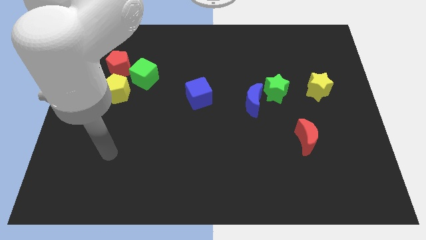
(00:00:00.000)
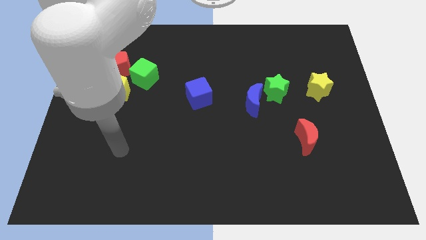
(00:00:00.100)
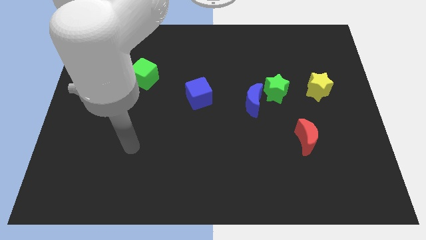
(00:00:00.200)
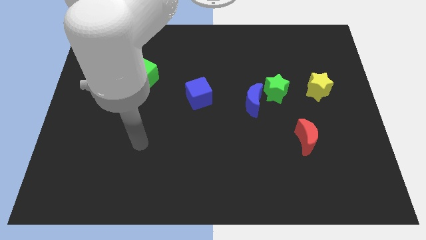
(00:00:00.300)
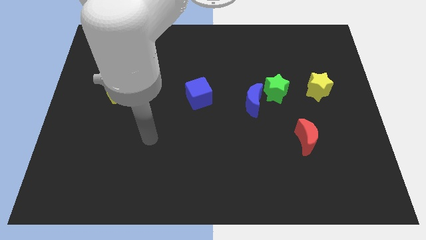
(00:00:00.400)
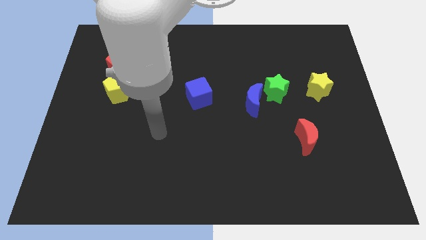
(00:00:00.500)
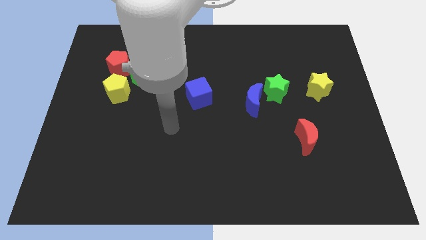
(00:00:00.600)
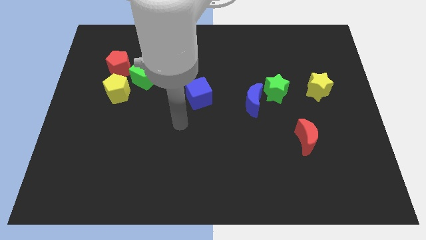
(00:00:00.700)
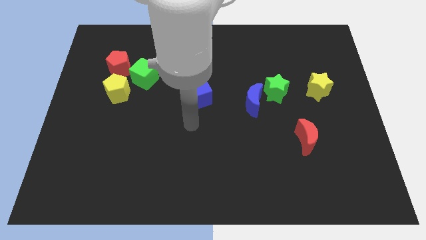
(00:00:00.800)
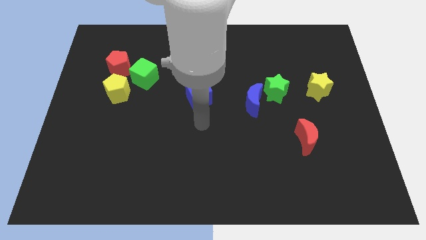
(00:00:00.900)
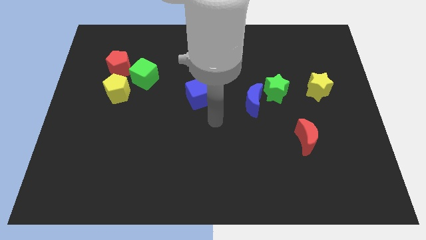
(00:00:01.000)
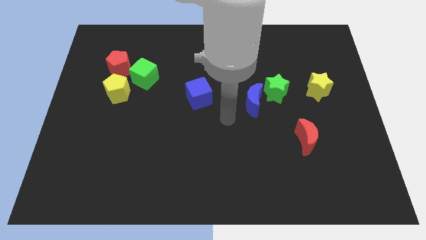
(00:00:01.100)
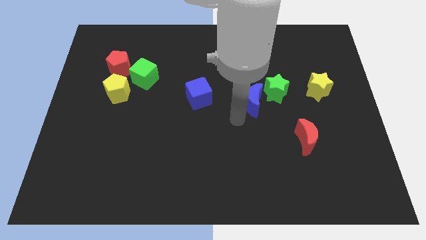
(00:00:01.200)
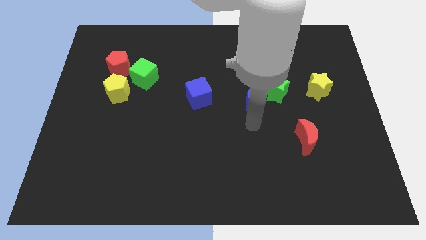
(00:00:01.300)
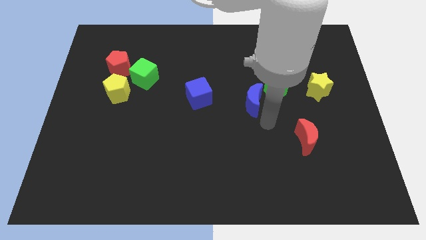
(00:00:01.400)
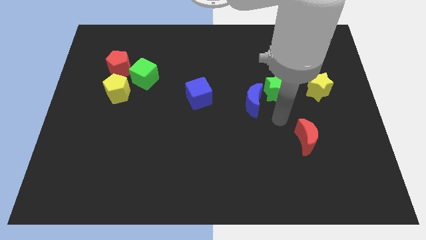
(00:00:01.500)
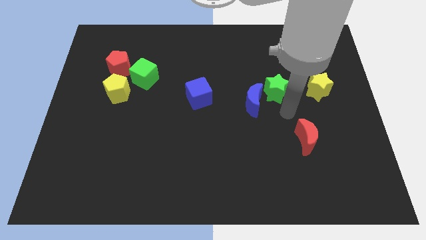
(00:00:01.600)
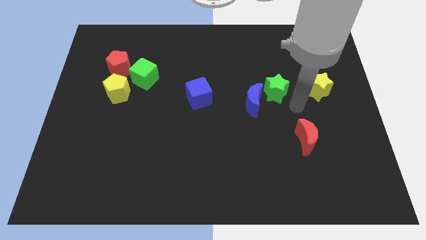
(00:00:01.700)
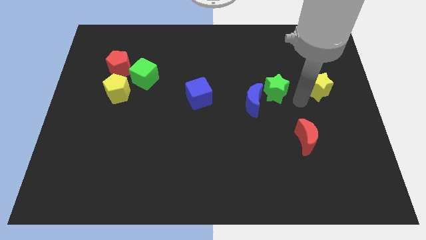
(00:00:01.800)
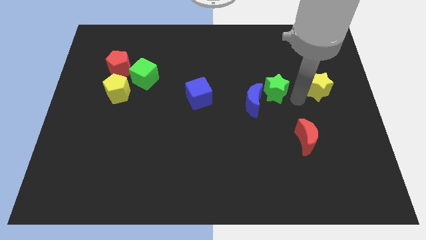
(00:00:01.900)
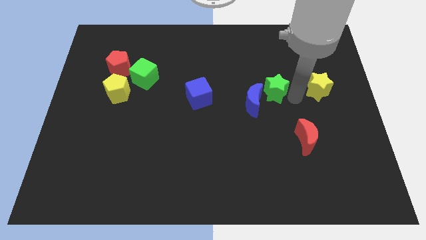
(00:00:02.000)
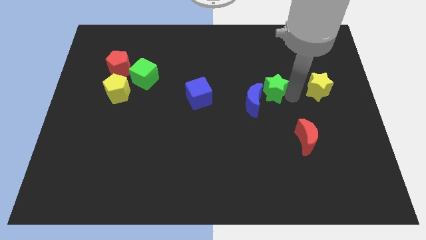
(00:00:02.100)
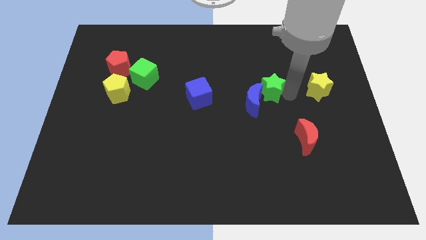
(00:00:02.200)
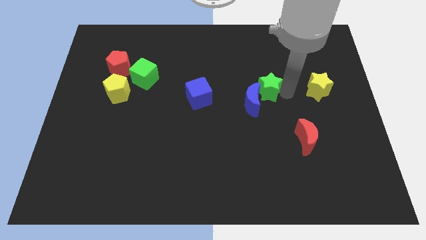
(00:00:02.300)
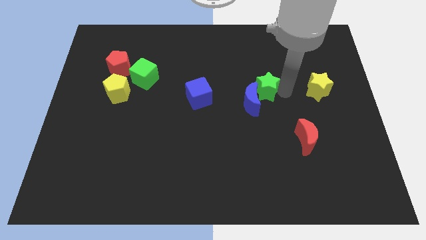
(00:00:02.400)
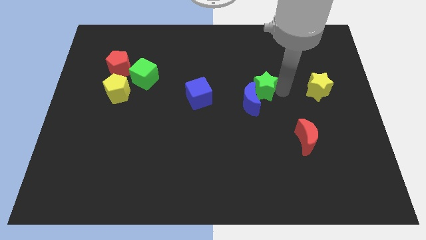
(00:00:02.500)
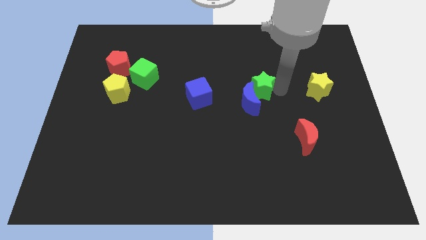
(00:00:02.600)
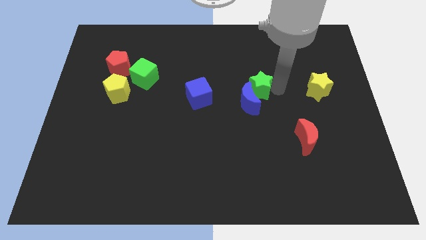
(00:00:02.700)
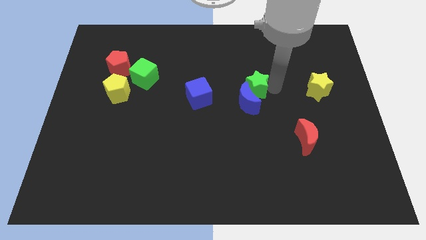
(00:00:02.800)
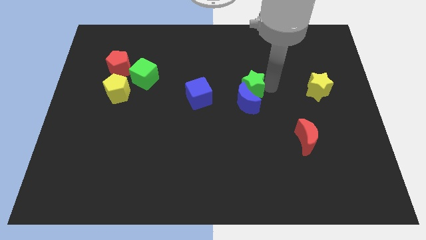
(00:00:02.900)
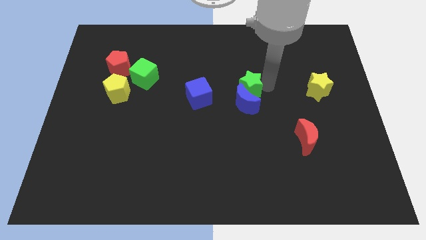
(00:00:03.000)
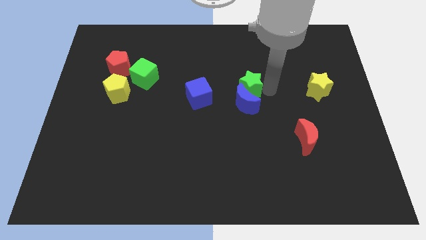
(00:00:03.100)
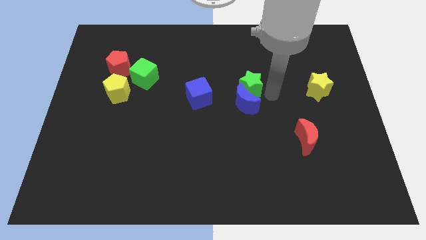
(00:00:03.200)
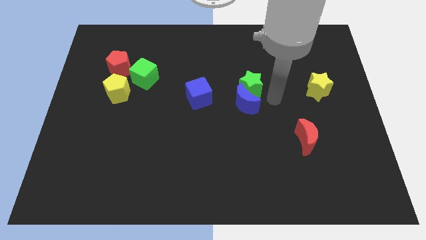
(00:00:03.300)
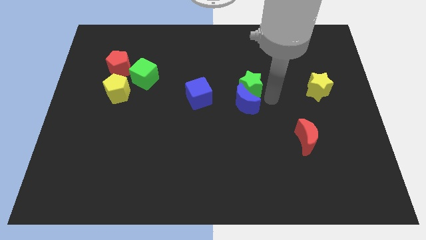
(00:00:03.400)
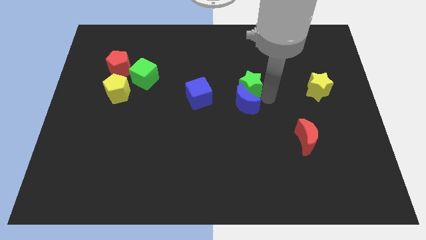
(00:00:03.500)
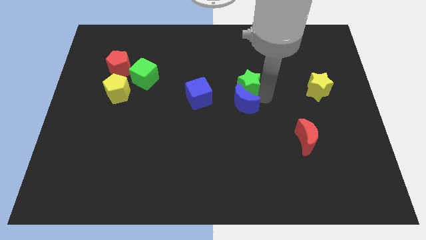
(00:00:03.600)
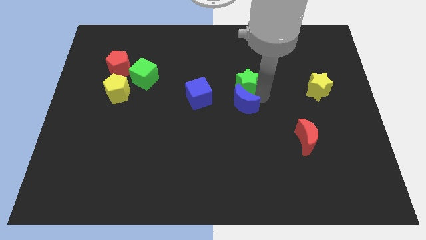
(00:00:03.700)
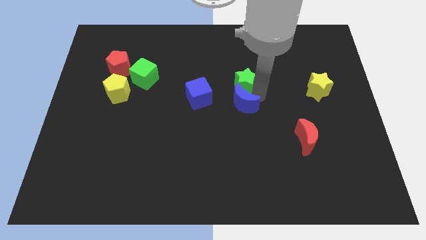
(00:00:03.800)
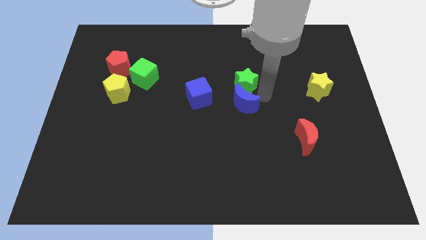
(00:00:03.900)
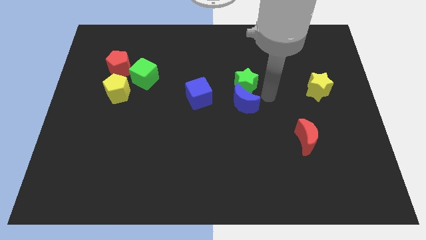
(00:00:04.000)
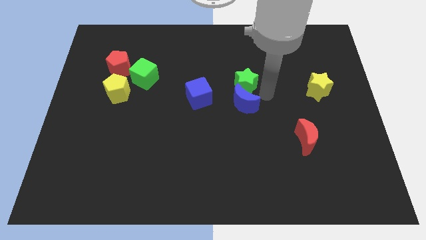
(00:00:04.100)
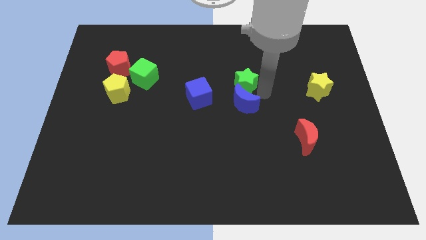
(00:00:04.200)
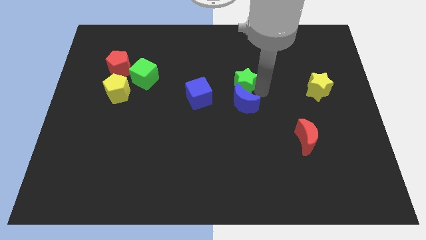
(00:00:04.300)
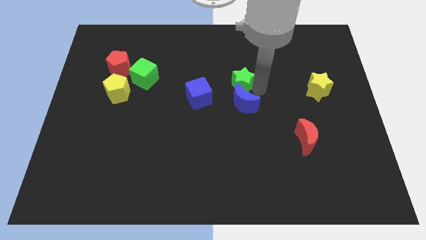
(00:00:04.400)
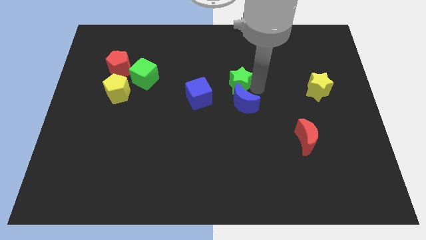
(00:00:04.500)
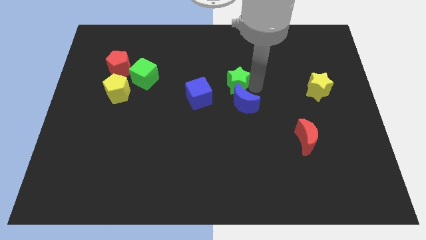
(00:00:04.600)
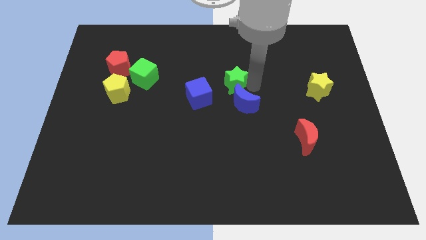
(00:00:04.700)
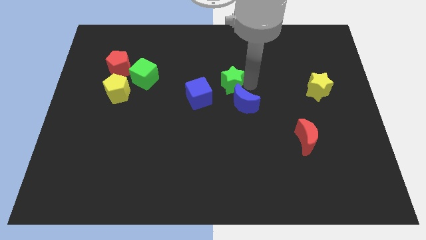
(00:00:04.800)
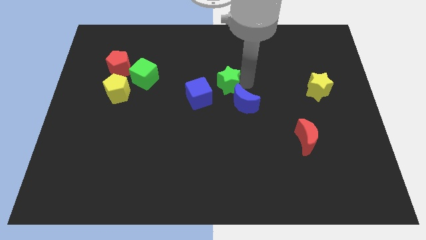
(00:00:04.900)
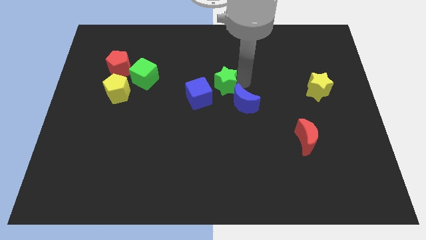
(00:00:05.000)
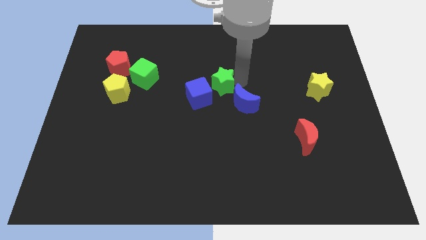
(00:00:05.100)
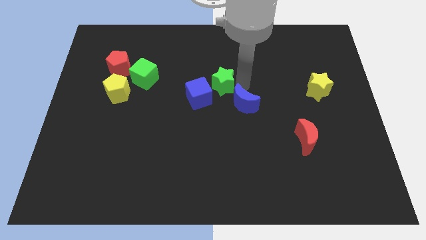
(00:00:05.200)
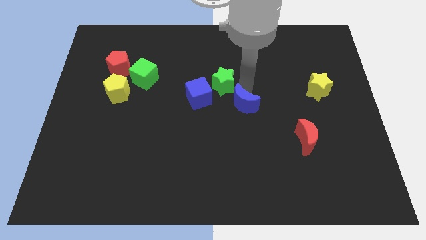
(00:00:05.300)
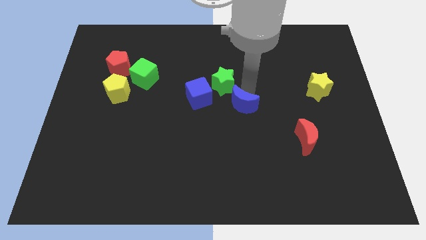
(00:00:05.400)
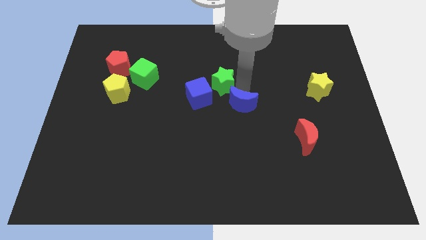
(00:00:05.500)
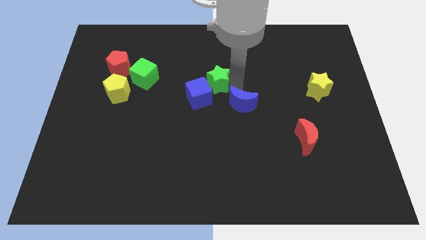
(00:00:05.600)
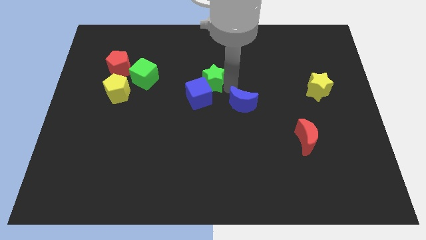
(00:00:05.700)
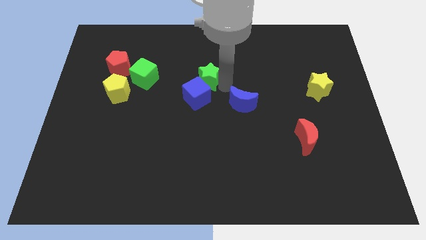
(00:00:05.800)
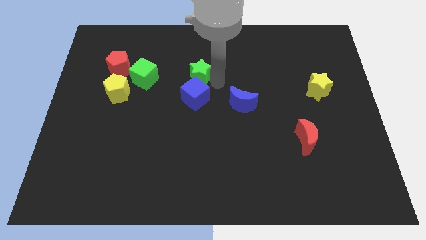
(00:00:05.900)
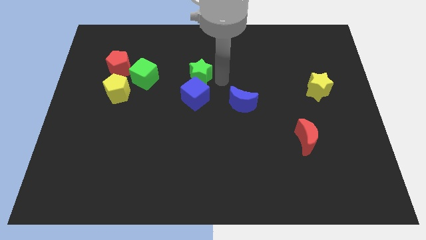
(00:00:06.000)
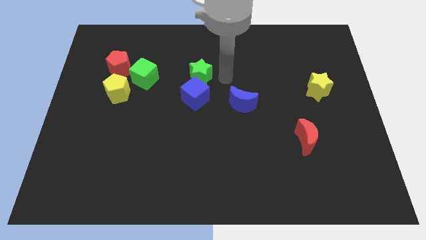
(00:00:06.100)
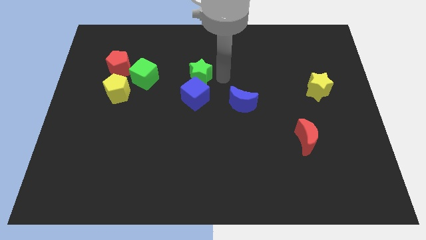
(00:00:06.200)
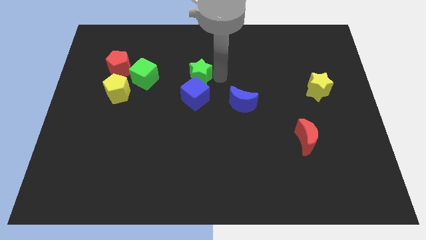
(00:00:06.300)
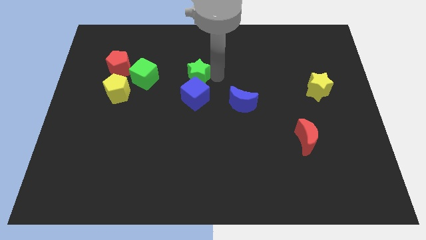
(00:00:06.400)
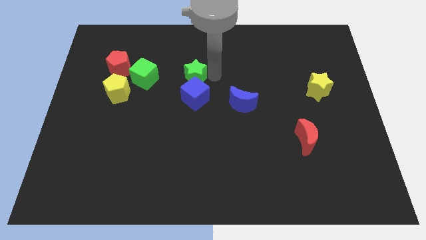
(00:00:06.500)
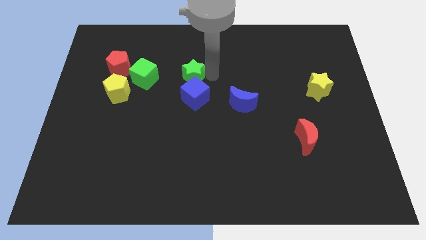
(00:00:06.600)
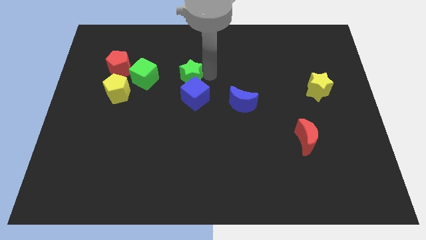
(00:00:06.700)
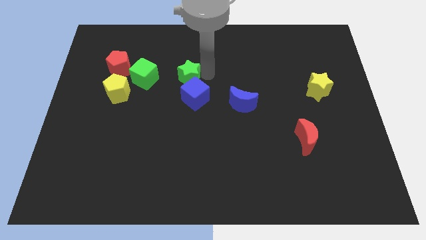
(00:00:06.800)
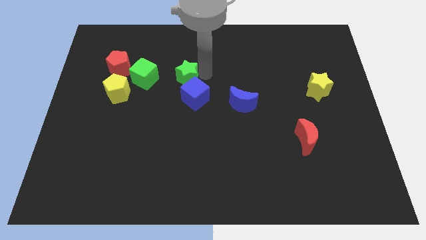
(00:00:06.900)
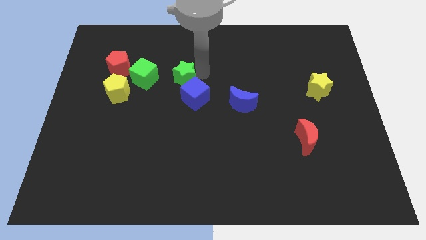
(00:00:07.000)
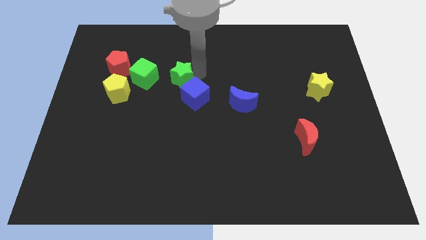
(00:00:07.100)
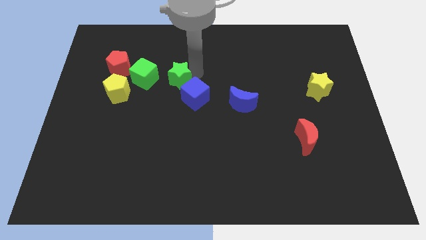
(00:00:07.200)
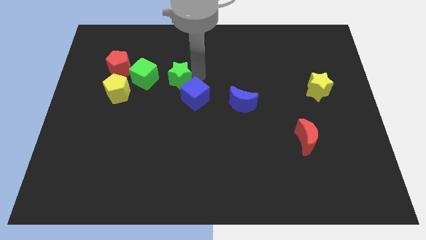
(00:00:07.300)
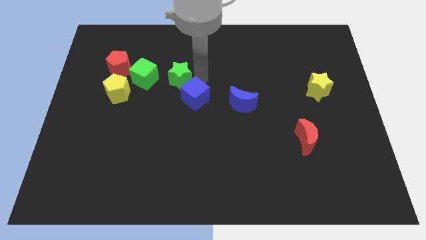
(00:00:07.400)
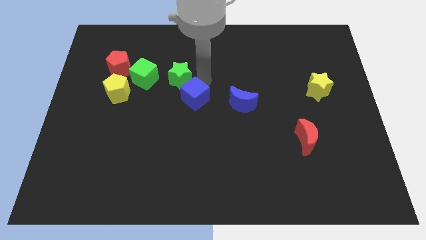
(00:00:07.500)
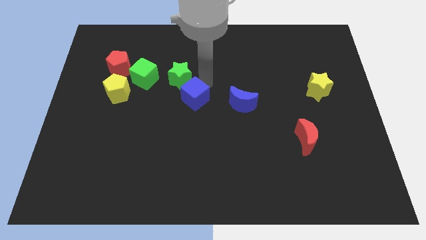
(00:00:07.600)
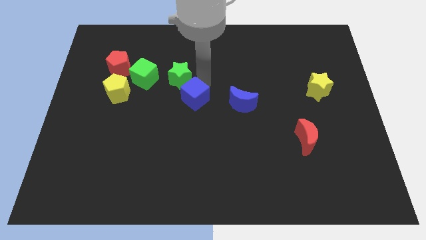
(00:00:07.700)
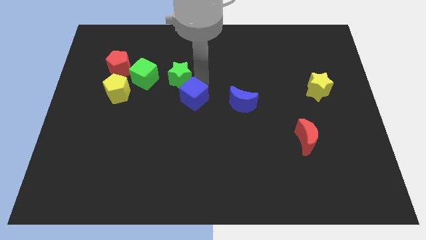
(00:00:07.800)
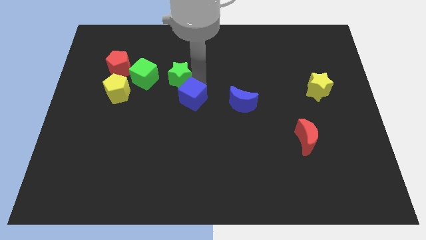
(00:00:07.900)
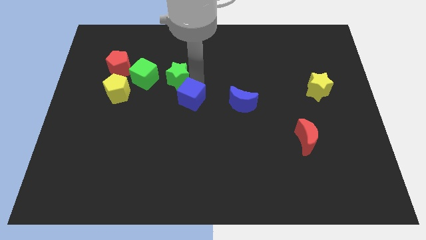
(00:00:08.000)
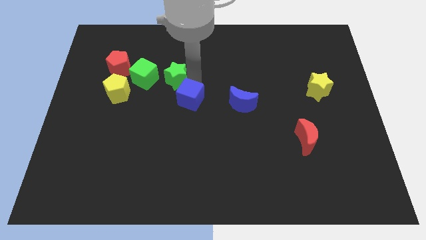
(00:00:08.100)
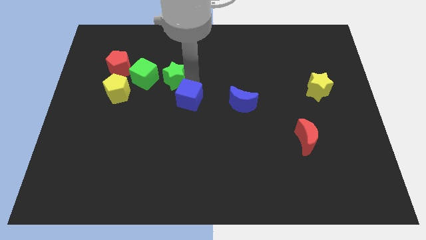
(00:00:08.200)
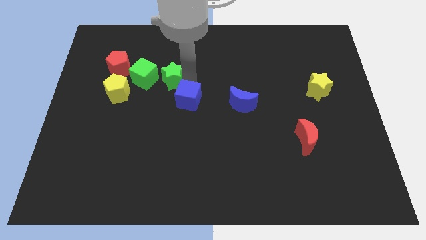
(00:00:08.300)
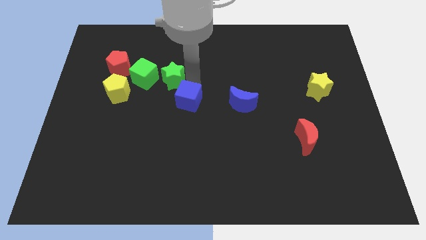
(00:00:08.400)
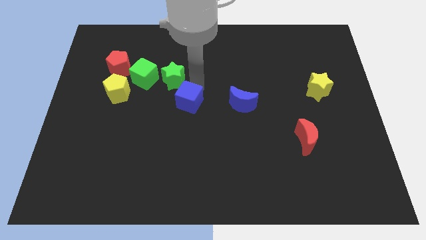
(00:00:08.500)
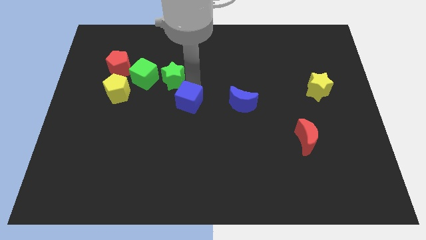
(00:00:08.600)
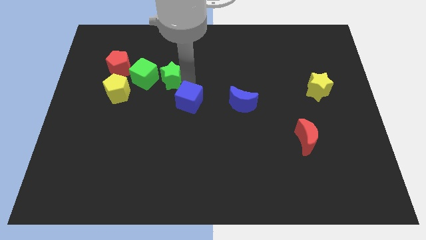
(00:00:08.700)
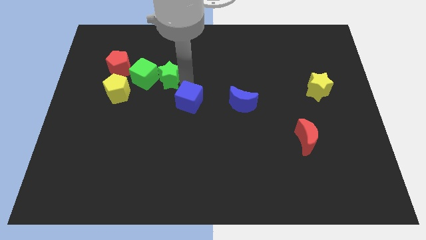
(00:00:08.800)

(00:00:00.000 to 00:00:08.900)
put the green star towards the green cube
